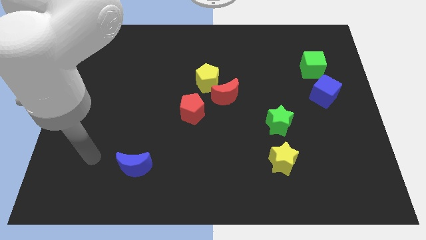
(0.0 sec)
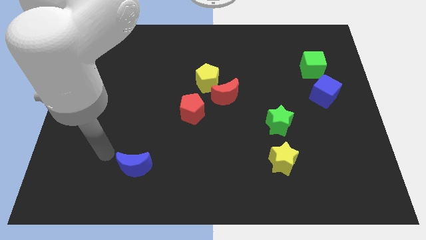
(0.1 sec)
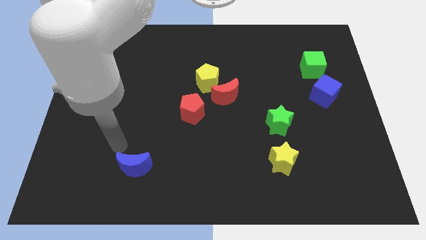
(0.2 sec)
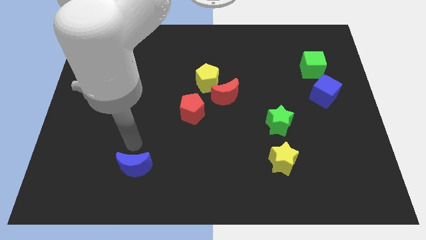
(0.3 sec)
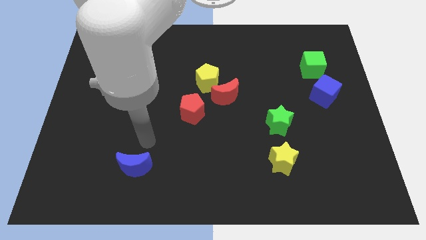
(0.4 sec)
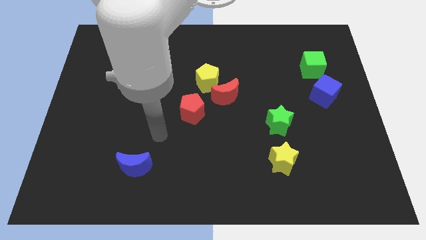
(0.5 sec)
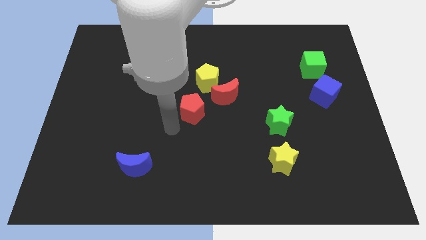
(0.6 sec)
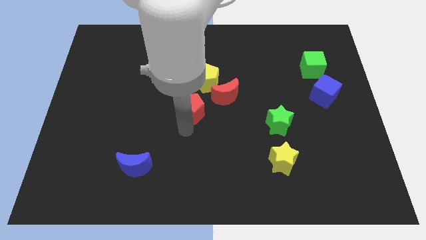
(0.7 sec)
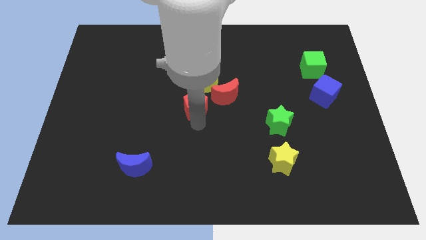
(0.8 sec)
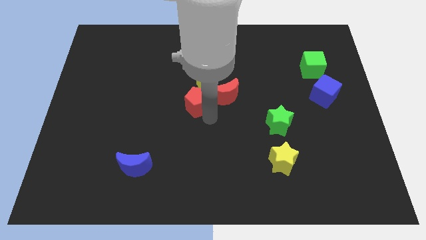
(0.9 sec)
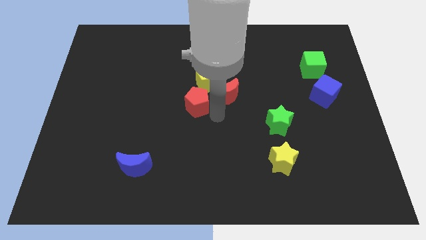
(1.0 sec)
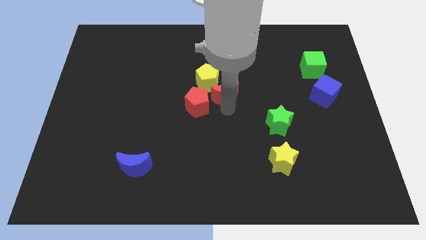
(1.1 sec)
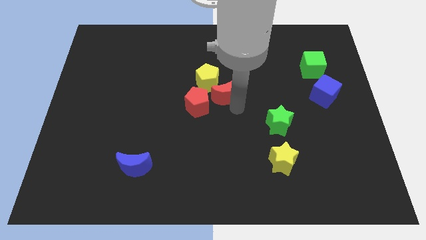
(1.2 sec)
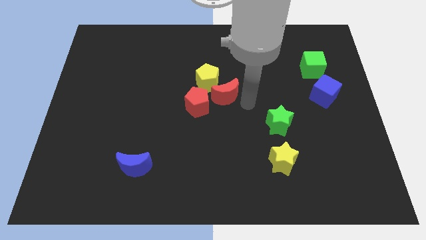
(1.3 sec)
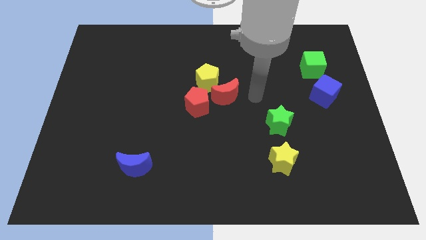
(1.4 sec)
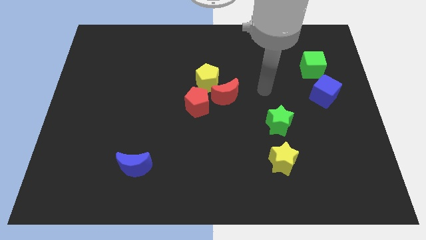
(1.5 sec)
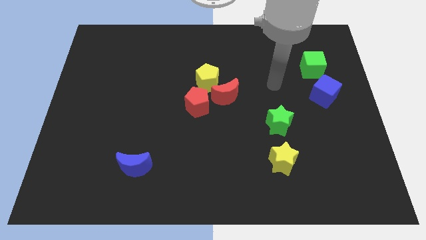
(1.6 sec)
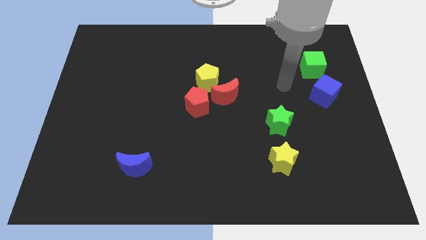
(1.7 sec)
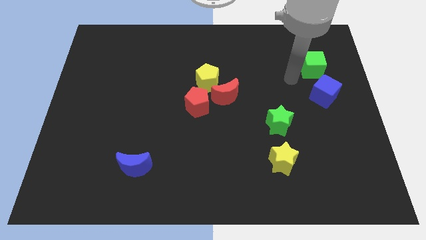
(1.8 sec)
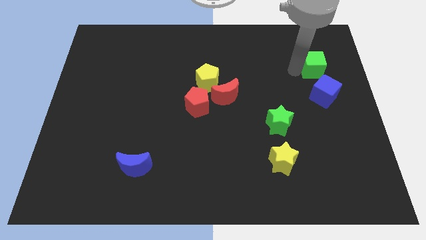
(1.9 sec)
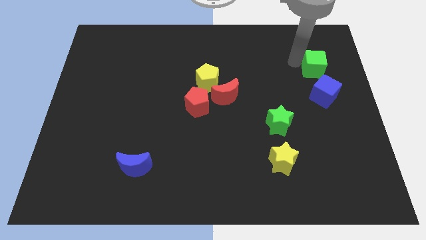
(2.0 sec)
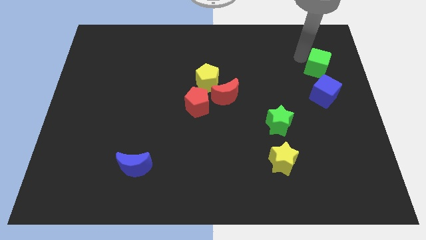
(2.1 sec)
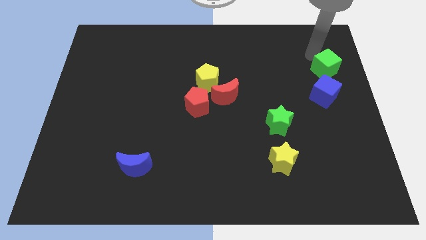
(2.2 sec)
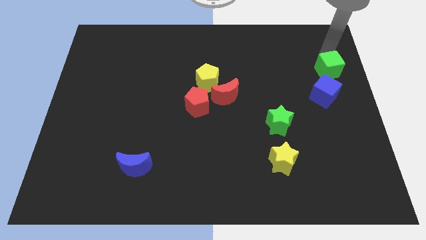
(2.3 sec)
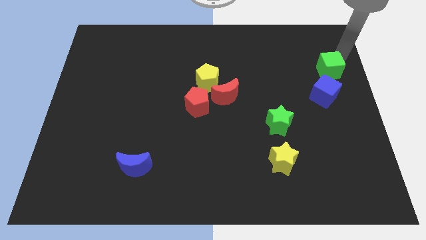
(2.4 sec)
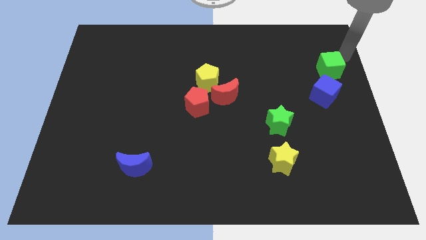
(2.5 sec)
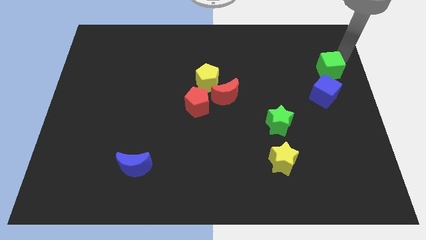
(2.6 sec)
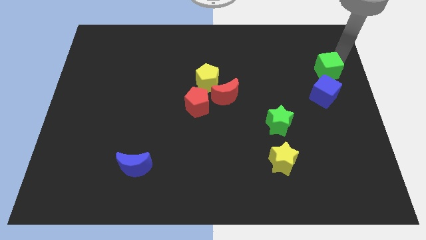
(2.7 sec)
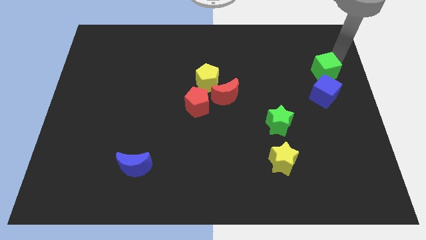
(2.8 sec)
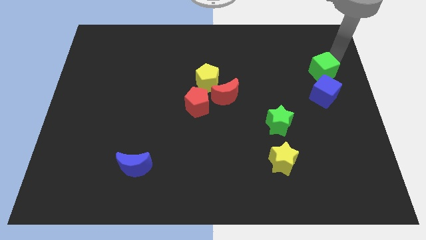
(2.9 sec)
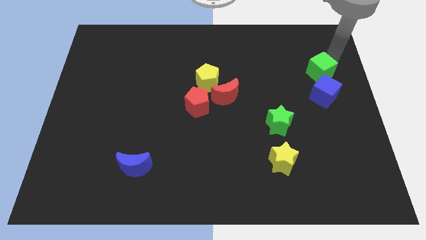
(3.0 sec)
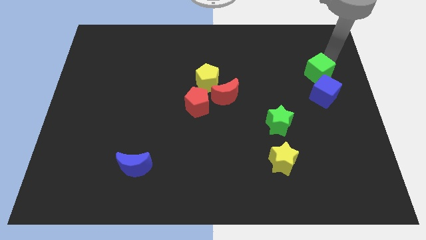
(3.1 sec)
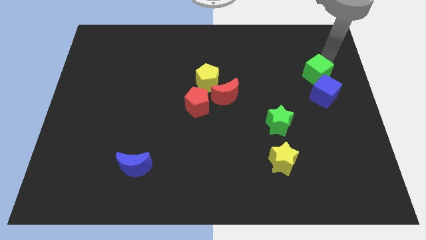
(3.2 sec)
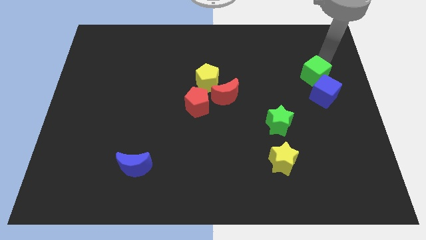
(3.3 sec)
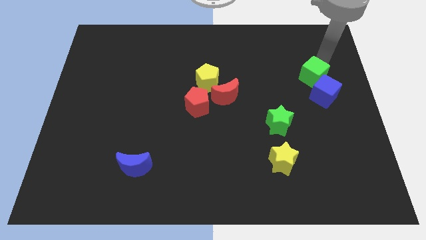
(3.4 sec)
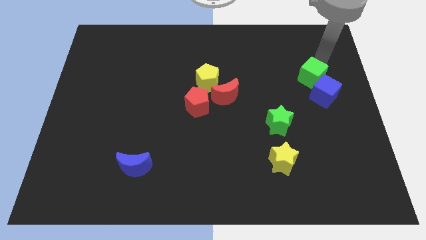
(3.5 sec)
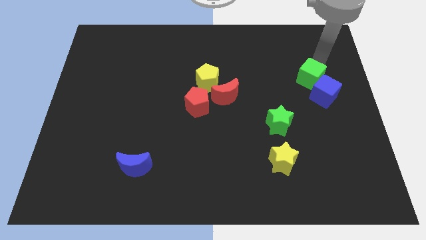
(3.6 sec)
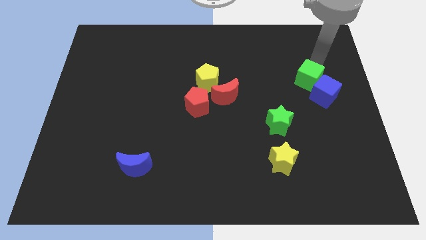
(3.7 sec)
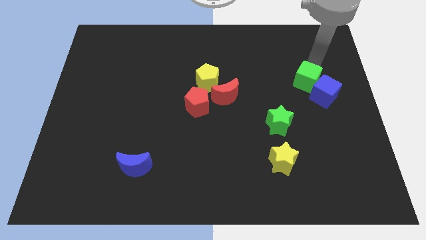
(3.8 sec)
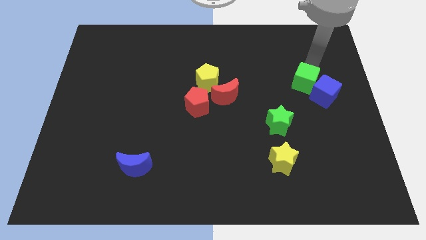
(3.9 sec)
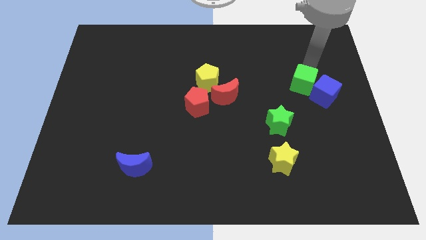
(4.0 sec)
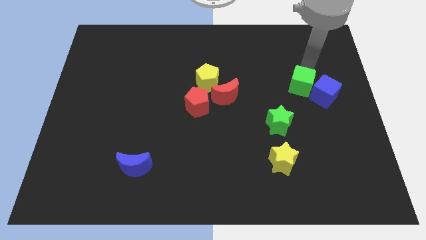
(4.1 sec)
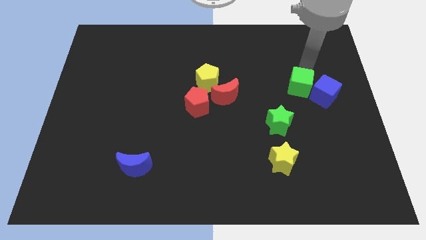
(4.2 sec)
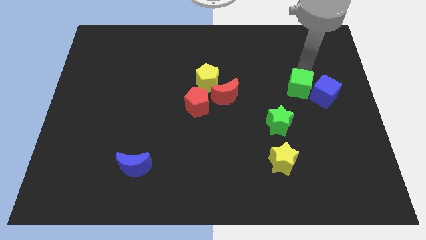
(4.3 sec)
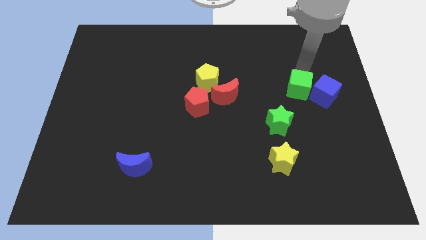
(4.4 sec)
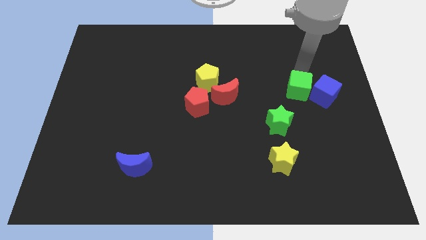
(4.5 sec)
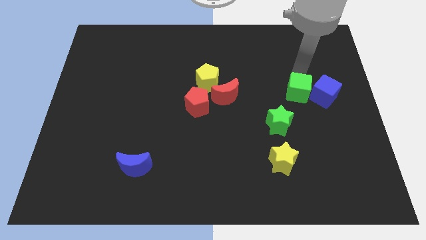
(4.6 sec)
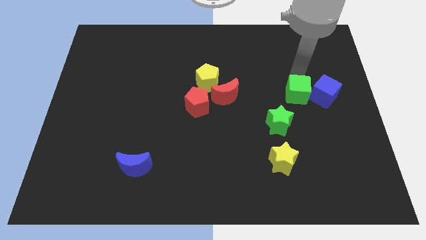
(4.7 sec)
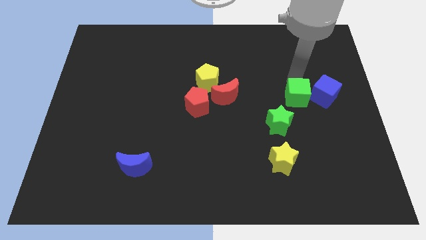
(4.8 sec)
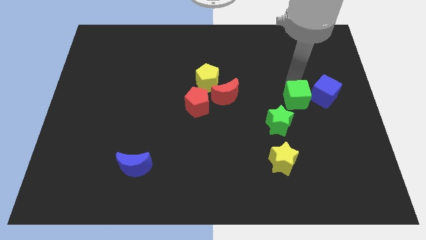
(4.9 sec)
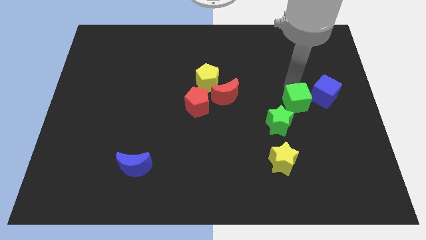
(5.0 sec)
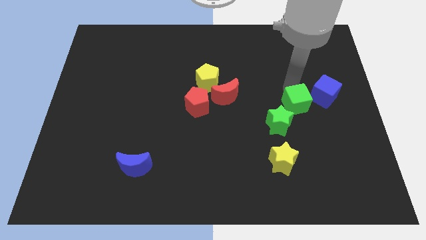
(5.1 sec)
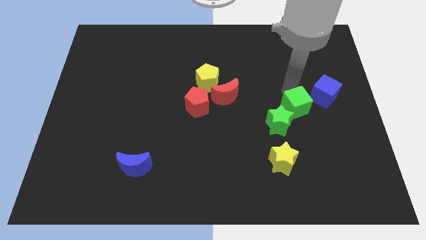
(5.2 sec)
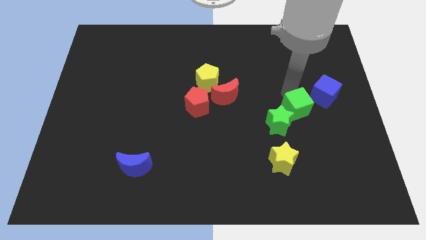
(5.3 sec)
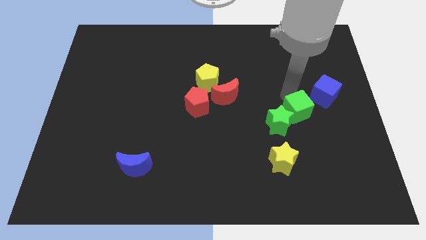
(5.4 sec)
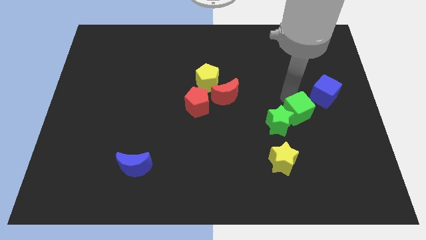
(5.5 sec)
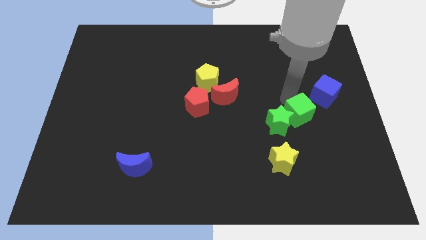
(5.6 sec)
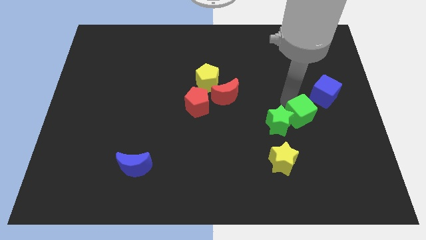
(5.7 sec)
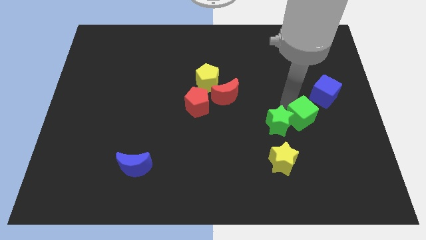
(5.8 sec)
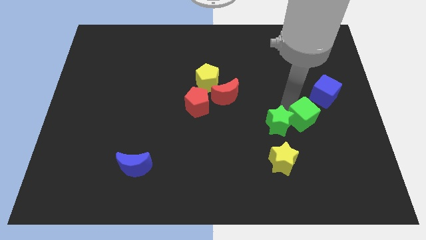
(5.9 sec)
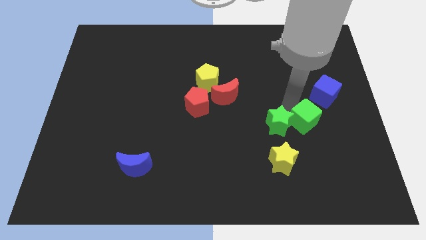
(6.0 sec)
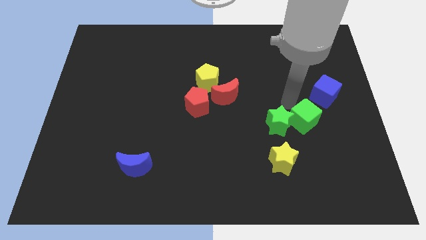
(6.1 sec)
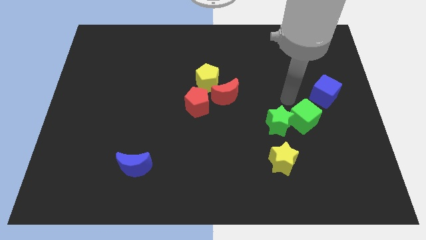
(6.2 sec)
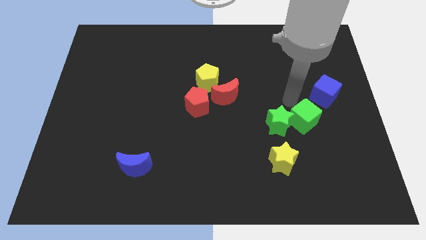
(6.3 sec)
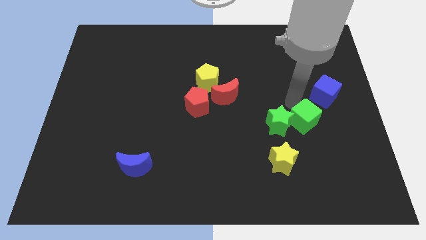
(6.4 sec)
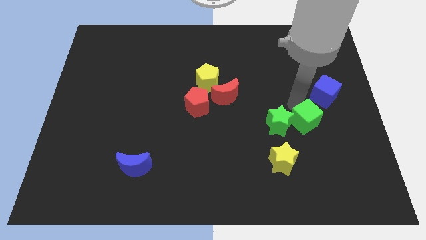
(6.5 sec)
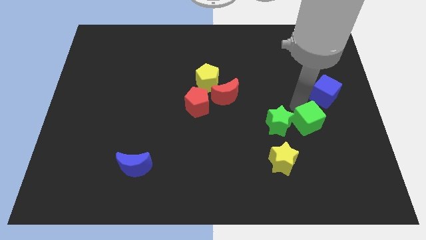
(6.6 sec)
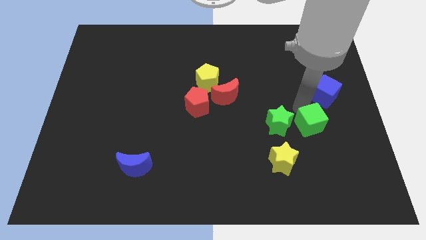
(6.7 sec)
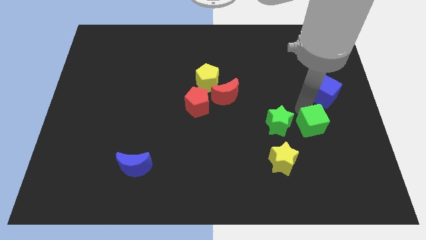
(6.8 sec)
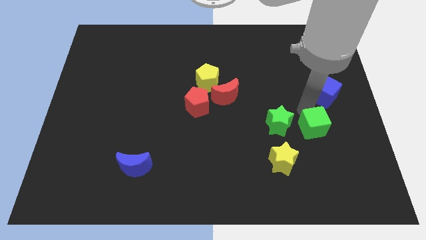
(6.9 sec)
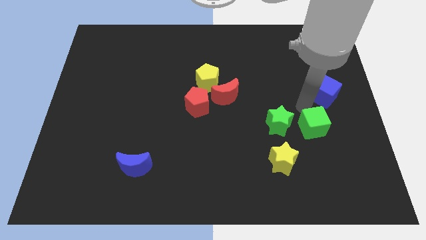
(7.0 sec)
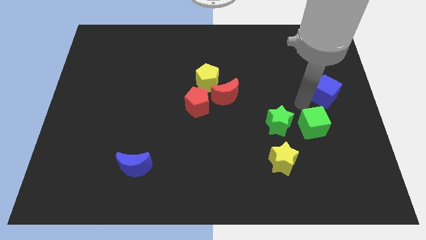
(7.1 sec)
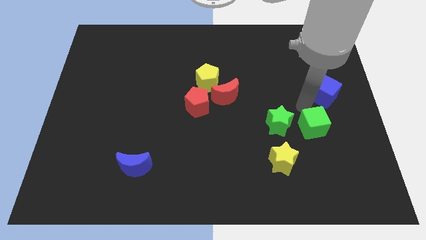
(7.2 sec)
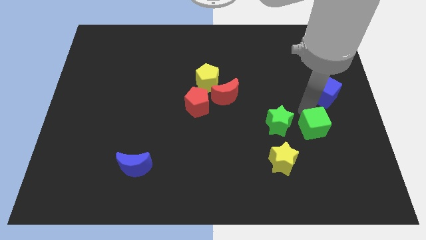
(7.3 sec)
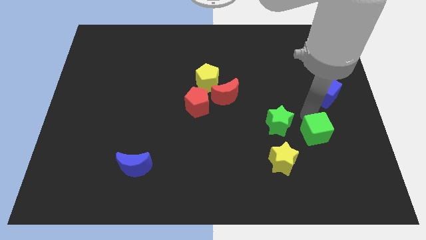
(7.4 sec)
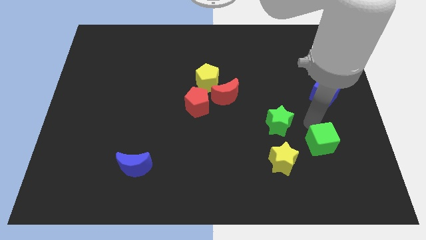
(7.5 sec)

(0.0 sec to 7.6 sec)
move the green cube to the right side of the yellow star
